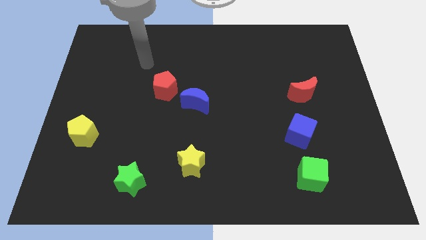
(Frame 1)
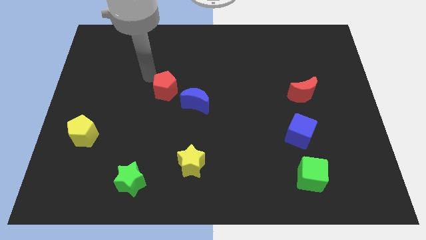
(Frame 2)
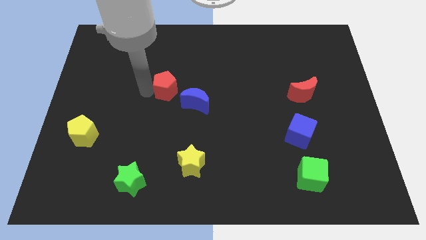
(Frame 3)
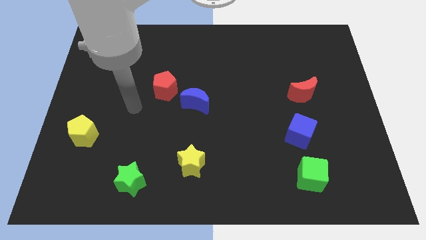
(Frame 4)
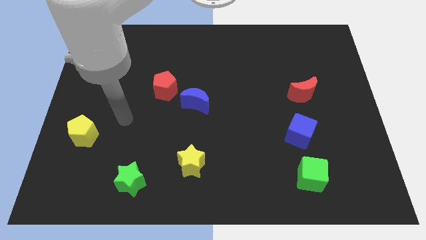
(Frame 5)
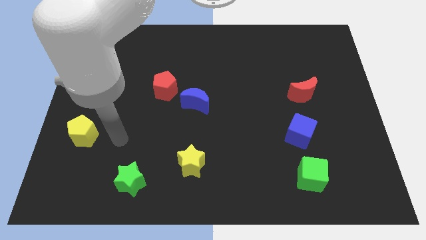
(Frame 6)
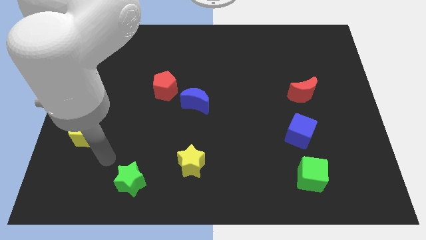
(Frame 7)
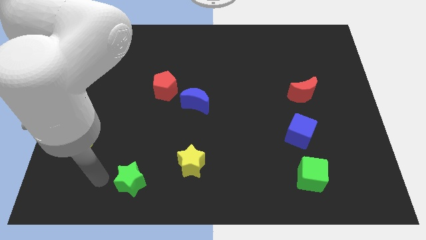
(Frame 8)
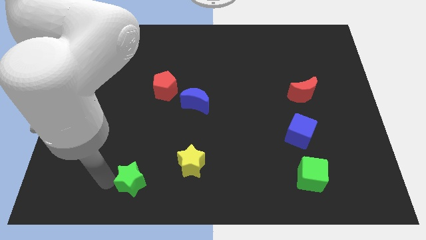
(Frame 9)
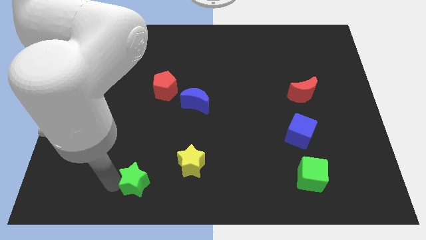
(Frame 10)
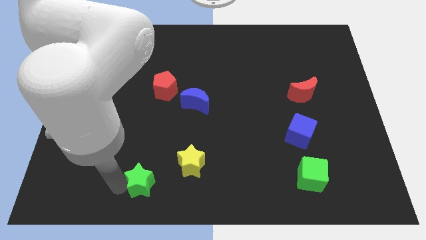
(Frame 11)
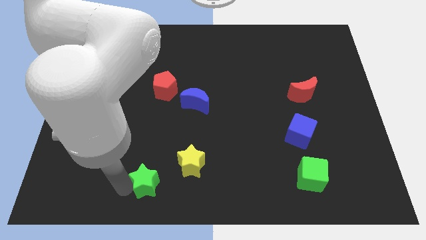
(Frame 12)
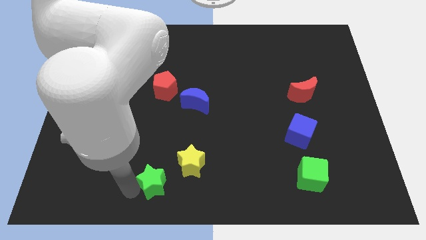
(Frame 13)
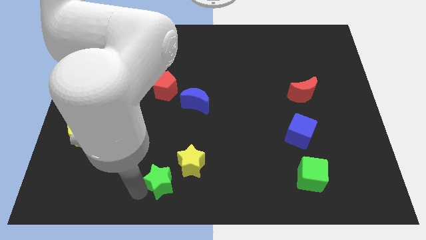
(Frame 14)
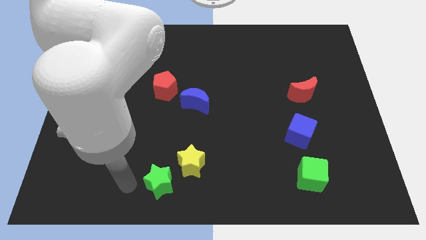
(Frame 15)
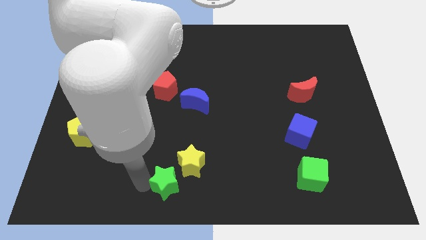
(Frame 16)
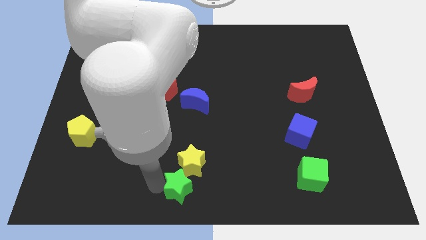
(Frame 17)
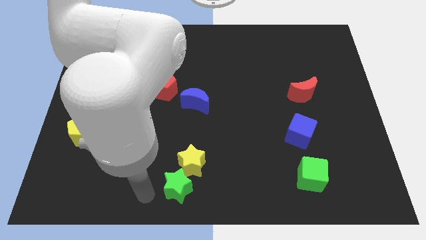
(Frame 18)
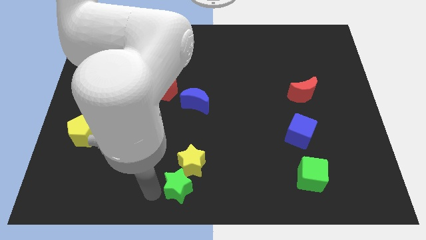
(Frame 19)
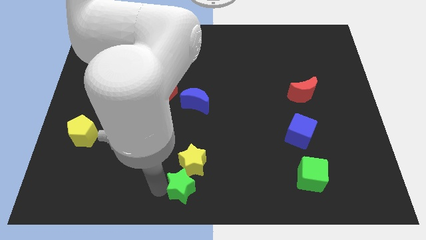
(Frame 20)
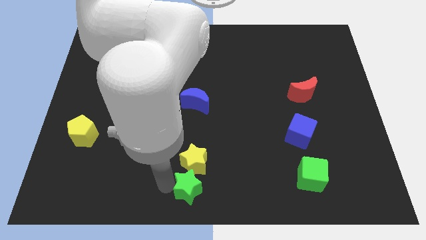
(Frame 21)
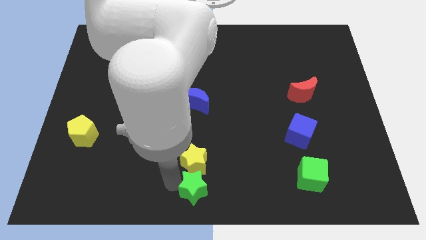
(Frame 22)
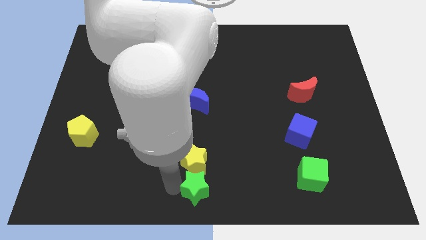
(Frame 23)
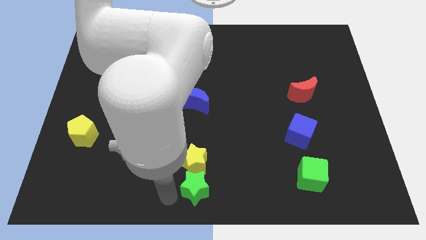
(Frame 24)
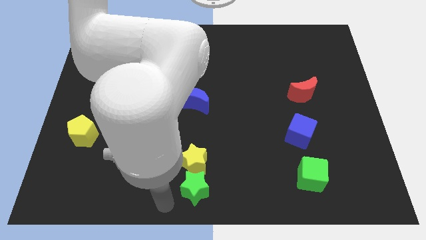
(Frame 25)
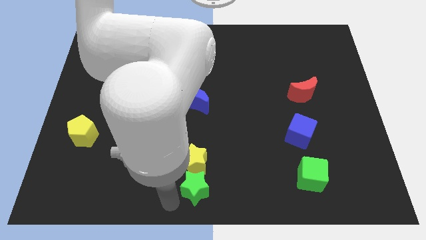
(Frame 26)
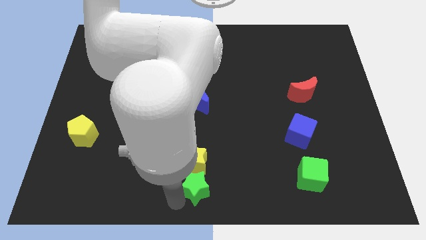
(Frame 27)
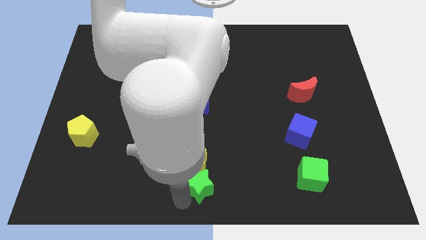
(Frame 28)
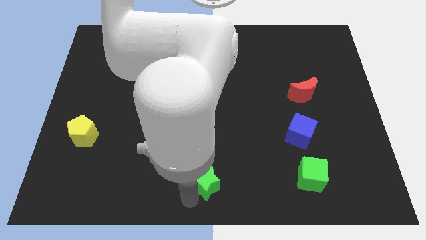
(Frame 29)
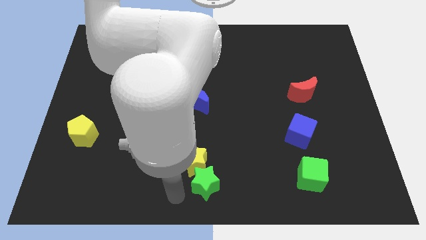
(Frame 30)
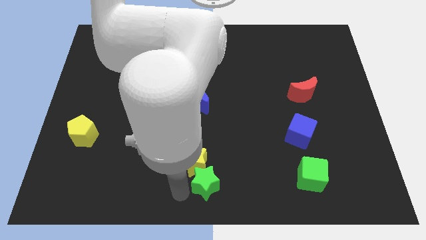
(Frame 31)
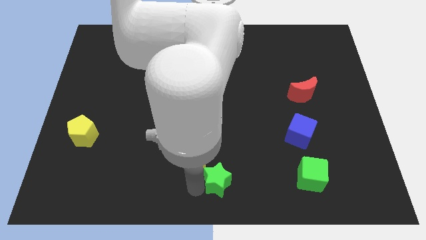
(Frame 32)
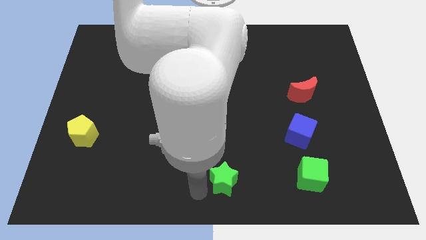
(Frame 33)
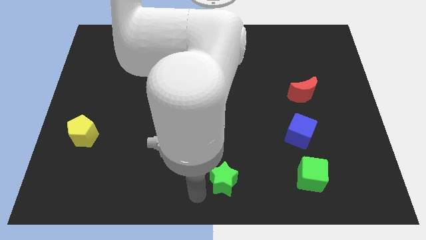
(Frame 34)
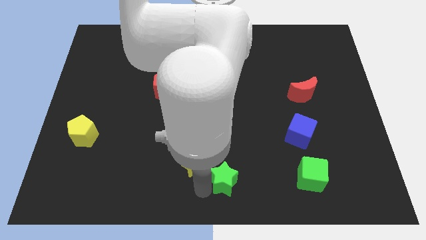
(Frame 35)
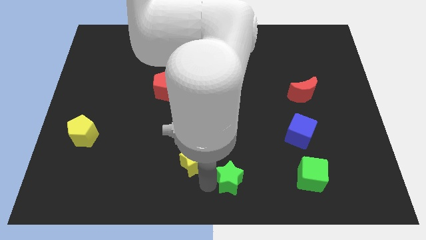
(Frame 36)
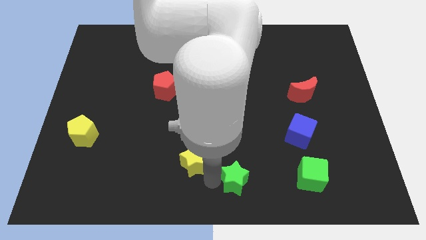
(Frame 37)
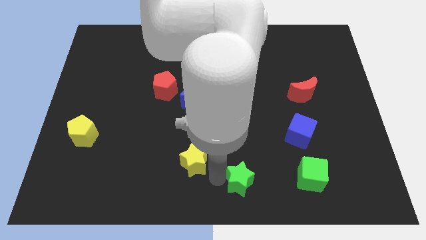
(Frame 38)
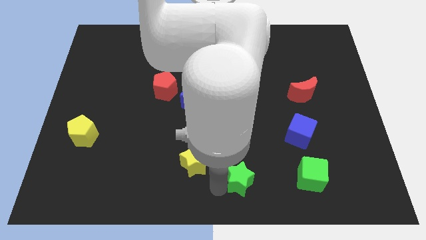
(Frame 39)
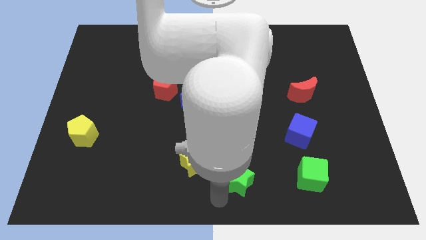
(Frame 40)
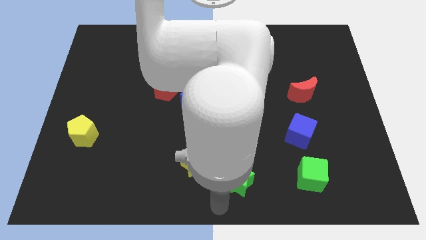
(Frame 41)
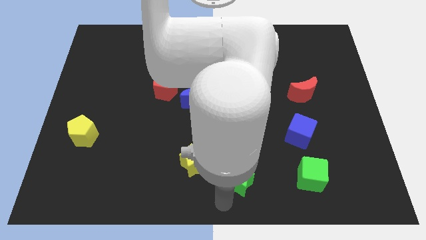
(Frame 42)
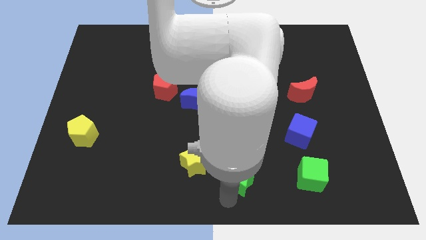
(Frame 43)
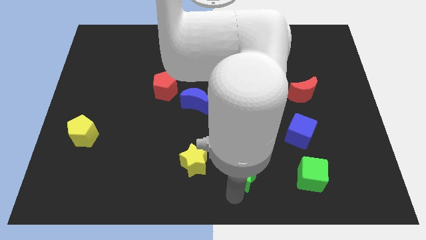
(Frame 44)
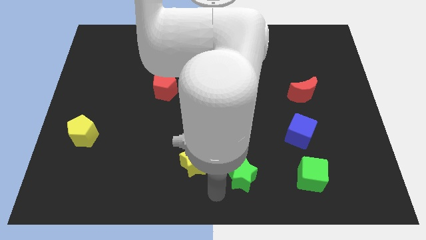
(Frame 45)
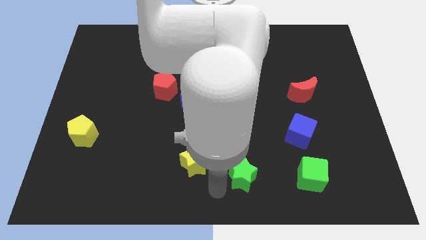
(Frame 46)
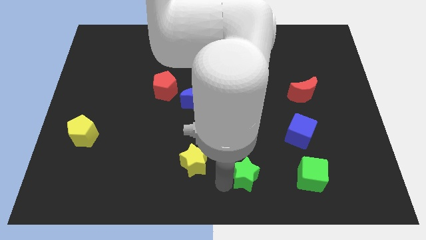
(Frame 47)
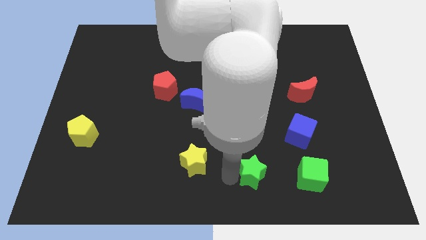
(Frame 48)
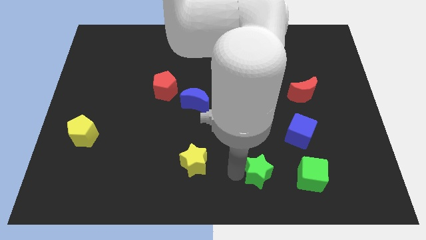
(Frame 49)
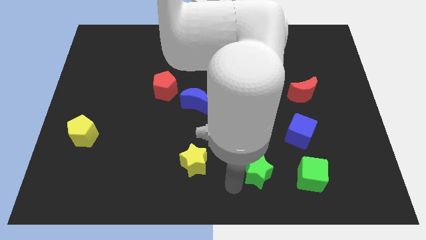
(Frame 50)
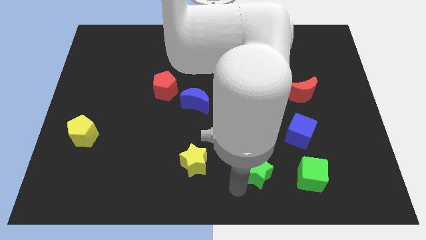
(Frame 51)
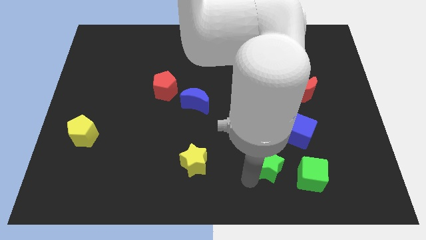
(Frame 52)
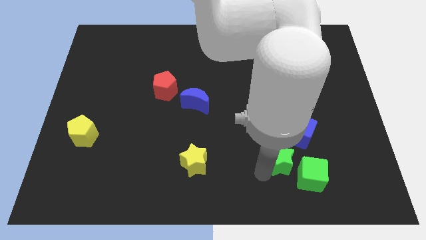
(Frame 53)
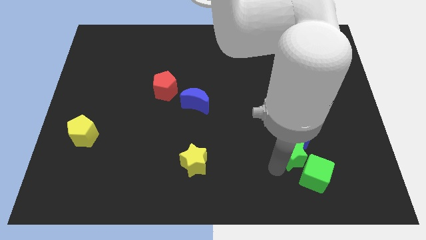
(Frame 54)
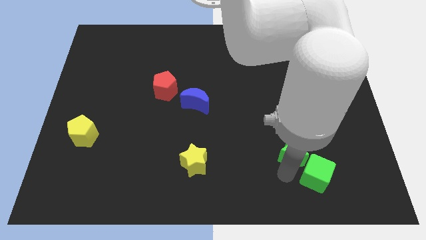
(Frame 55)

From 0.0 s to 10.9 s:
put the green star to the blue cube

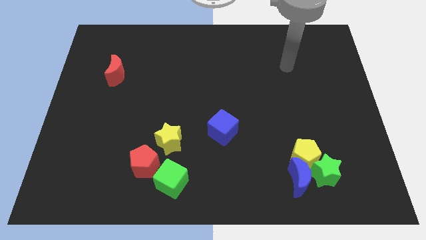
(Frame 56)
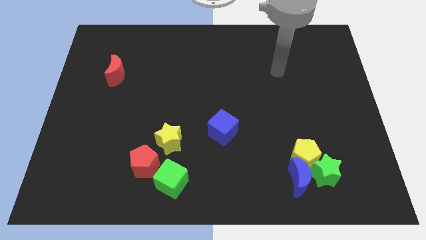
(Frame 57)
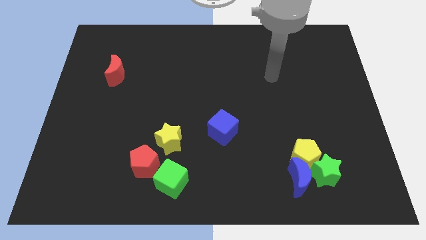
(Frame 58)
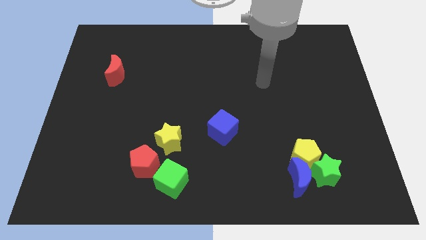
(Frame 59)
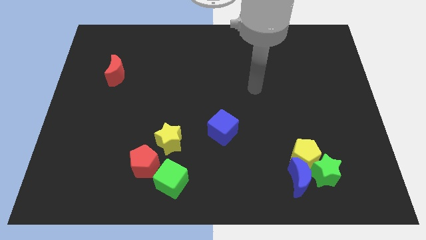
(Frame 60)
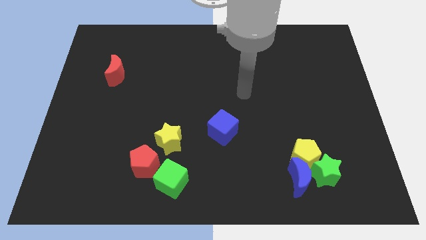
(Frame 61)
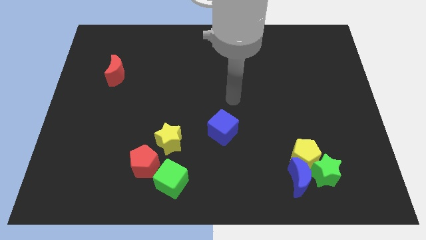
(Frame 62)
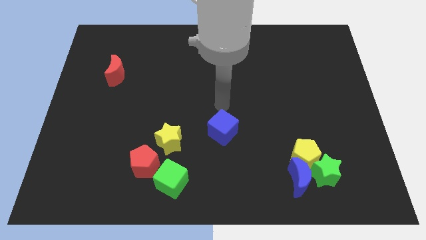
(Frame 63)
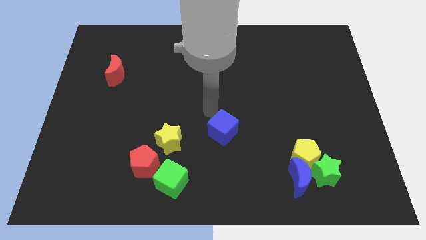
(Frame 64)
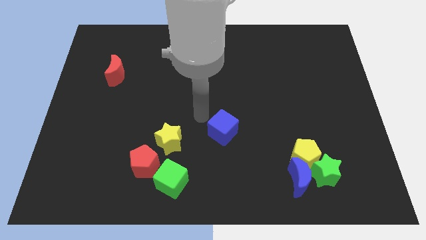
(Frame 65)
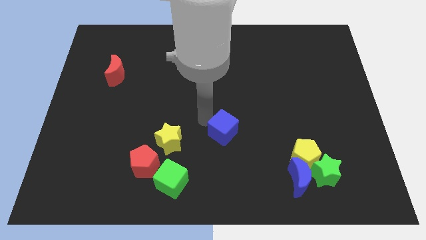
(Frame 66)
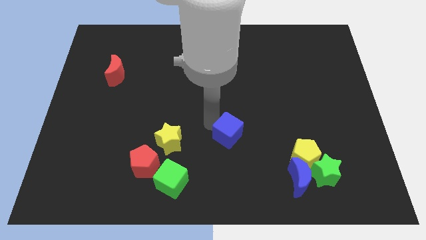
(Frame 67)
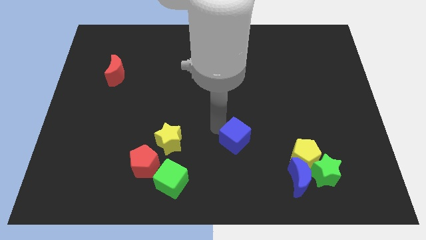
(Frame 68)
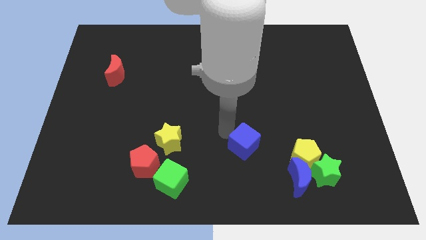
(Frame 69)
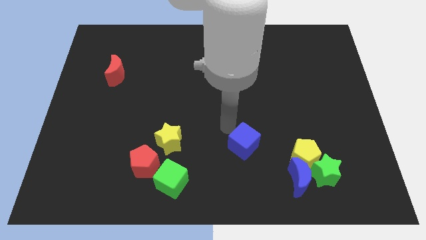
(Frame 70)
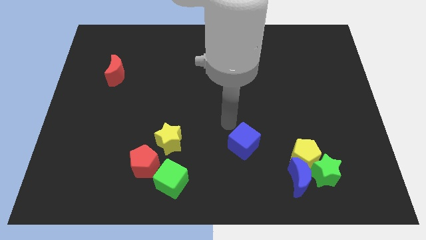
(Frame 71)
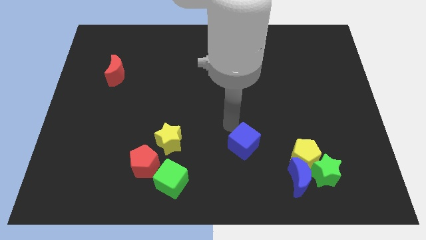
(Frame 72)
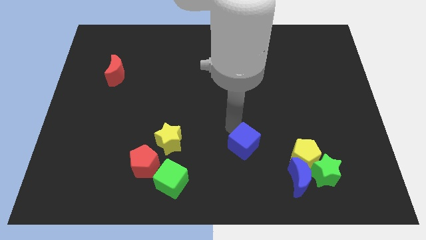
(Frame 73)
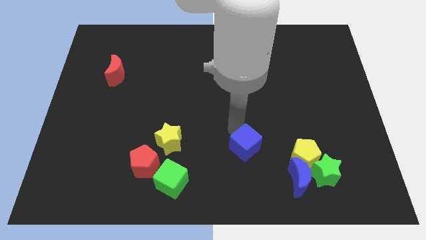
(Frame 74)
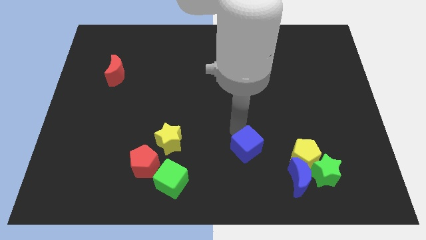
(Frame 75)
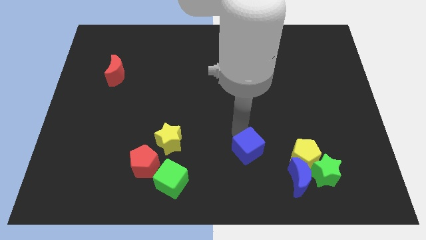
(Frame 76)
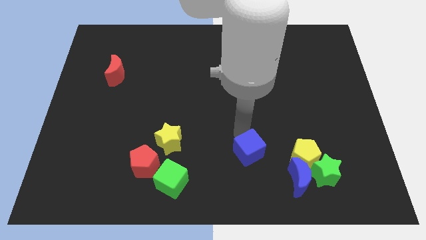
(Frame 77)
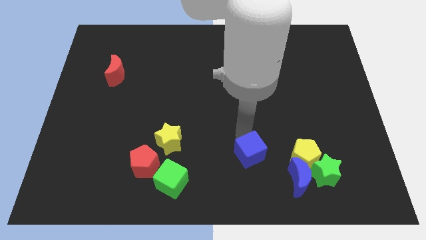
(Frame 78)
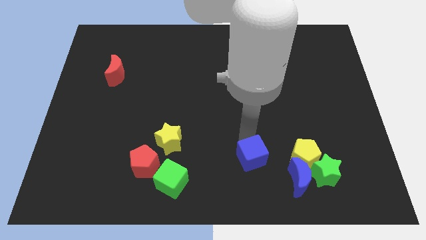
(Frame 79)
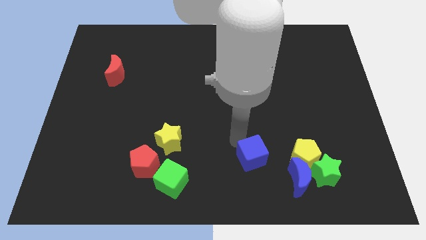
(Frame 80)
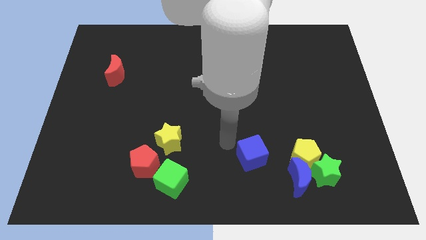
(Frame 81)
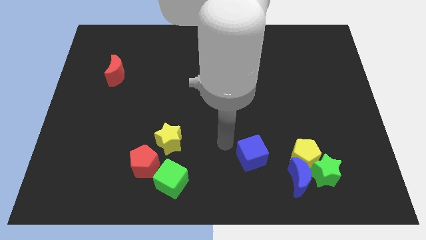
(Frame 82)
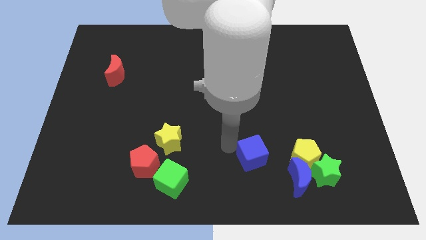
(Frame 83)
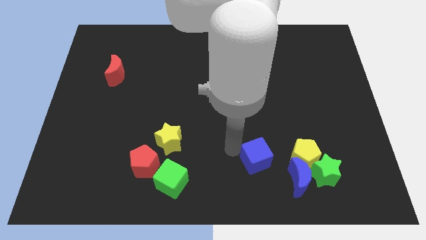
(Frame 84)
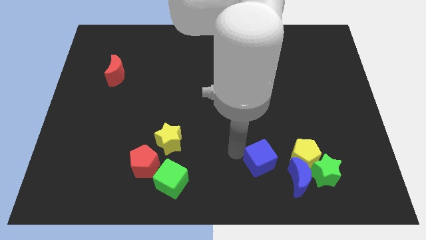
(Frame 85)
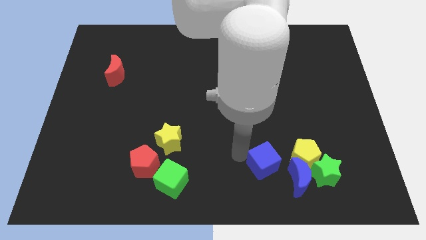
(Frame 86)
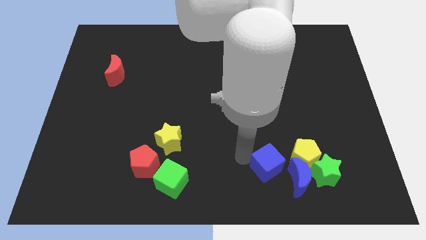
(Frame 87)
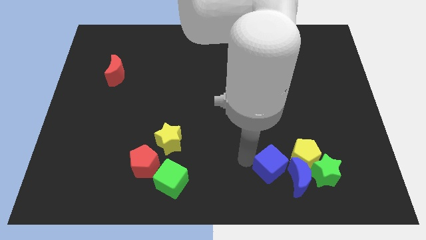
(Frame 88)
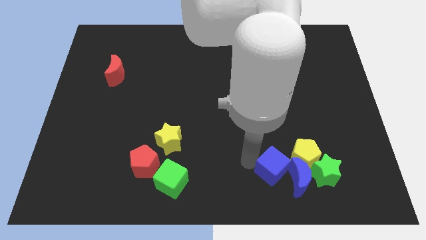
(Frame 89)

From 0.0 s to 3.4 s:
slide the blue cube towards the blue moon
